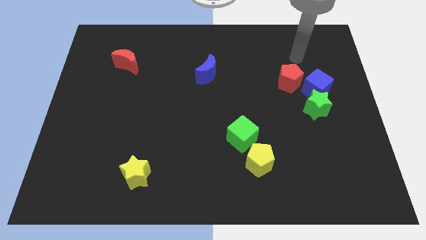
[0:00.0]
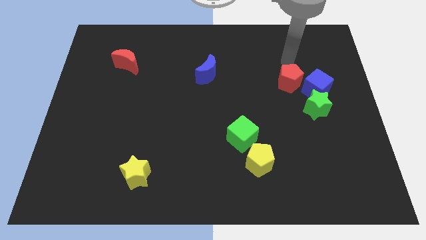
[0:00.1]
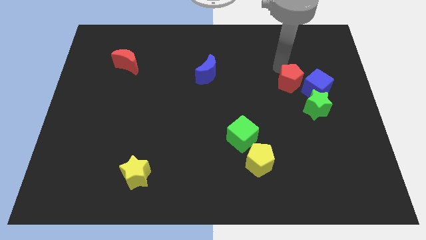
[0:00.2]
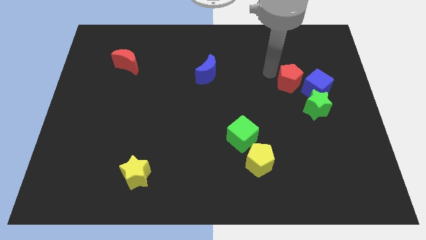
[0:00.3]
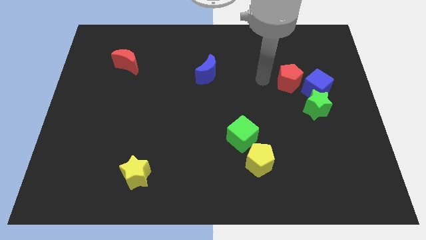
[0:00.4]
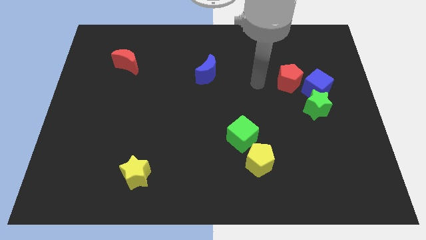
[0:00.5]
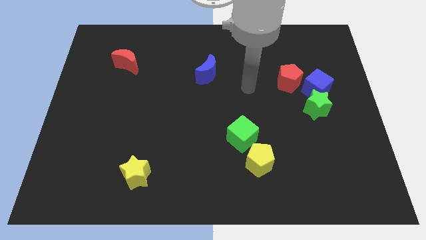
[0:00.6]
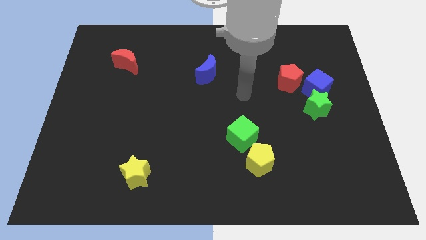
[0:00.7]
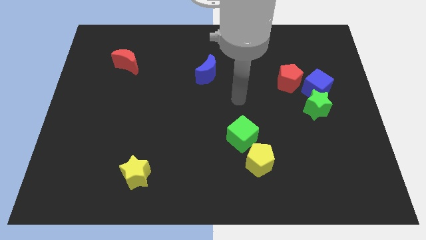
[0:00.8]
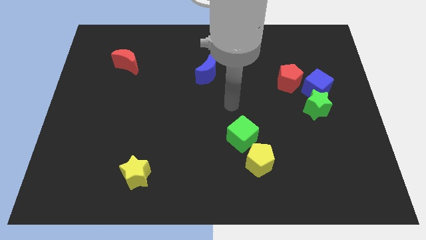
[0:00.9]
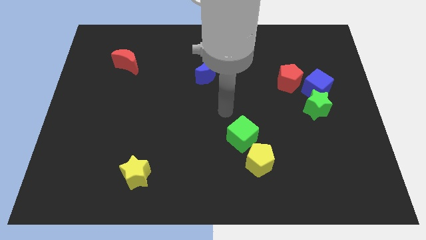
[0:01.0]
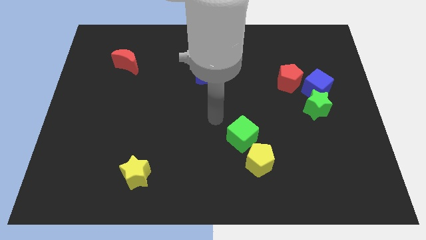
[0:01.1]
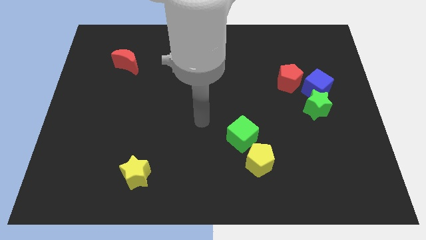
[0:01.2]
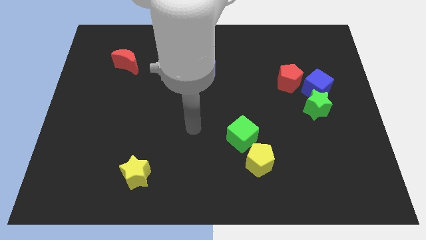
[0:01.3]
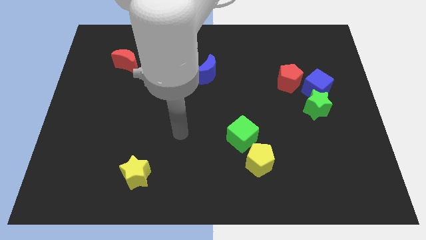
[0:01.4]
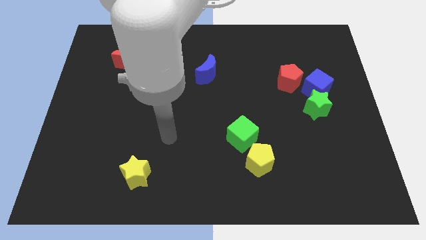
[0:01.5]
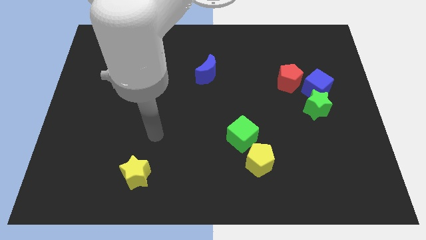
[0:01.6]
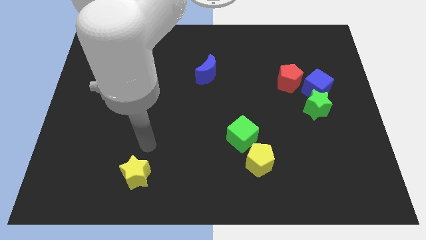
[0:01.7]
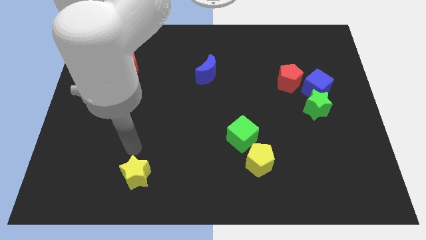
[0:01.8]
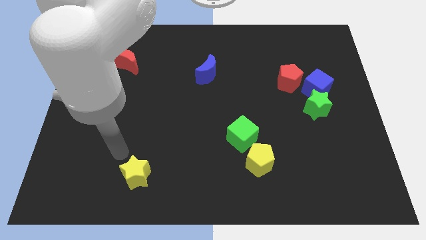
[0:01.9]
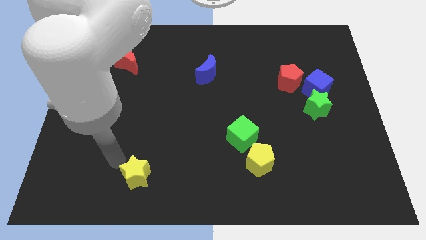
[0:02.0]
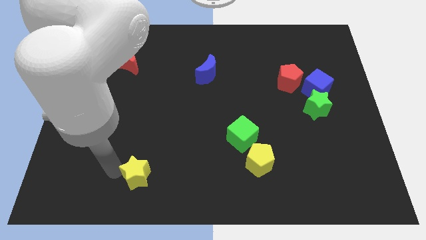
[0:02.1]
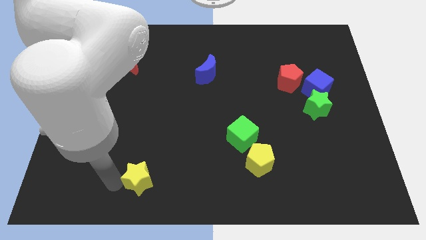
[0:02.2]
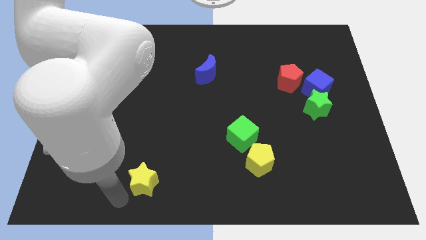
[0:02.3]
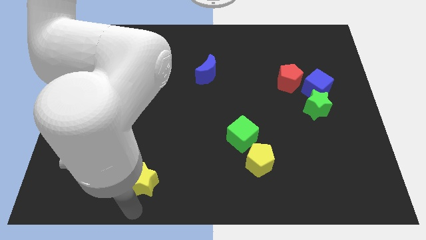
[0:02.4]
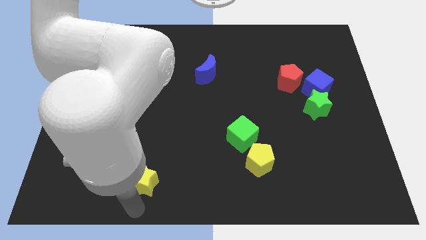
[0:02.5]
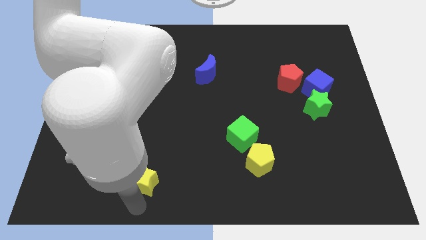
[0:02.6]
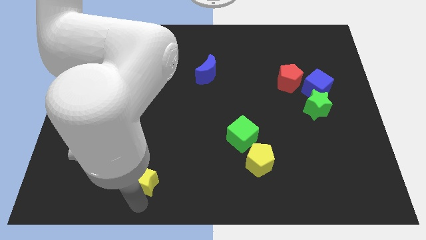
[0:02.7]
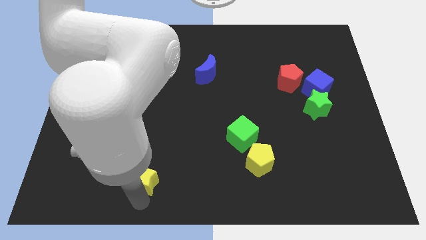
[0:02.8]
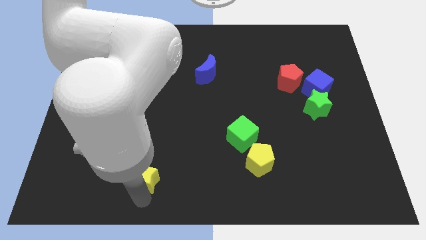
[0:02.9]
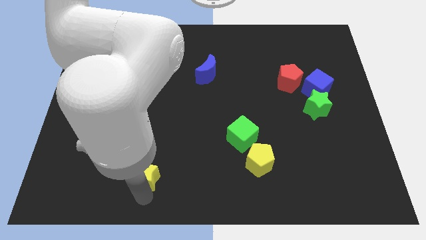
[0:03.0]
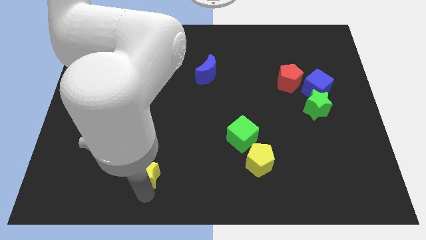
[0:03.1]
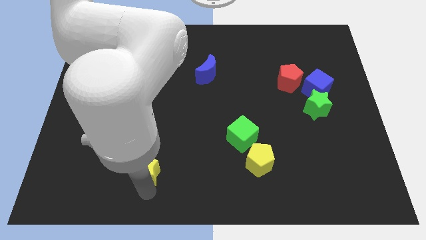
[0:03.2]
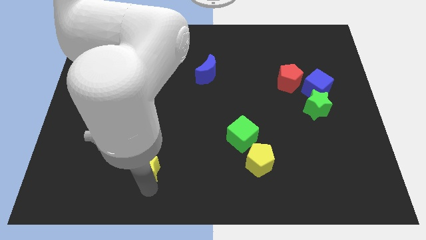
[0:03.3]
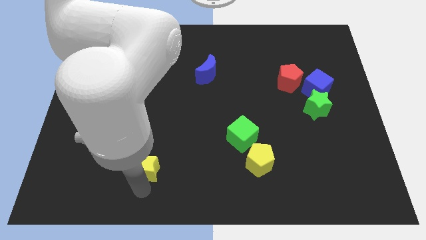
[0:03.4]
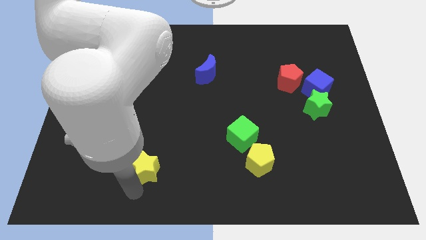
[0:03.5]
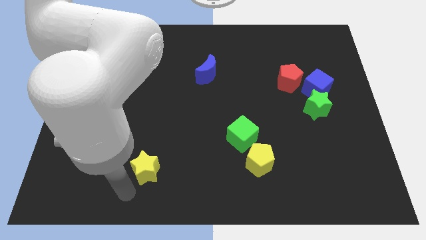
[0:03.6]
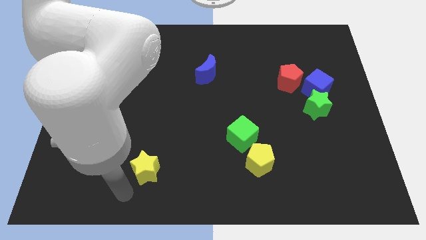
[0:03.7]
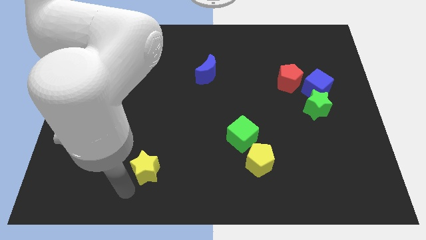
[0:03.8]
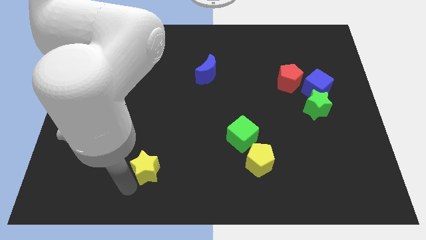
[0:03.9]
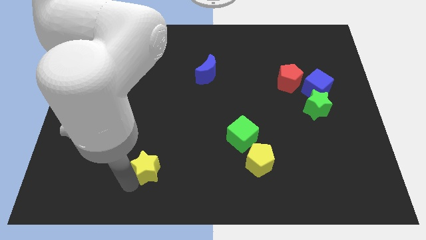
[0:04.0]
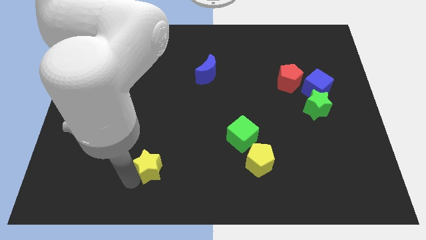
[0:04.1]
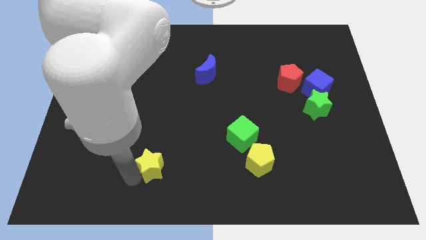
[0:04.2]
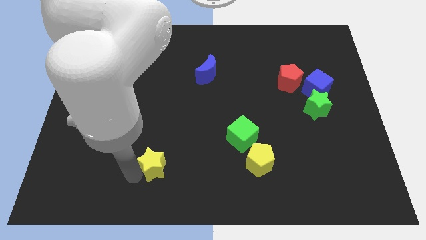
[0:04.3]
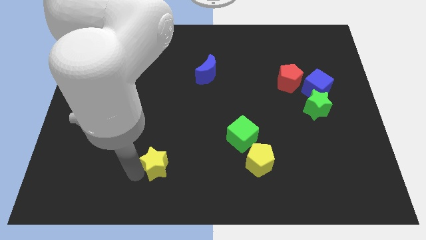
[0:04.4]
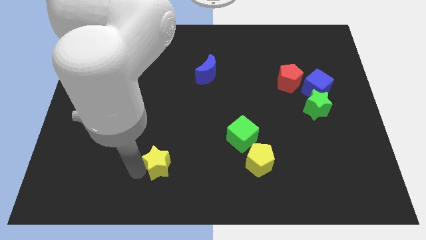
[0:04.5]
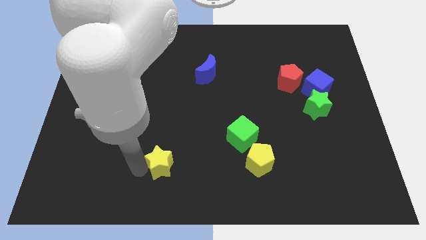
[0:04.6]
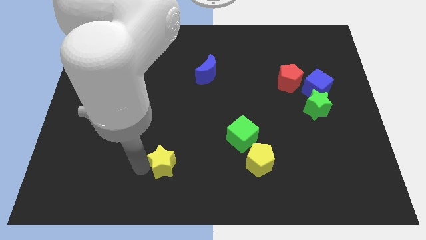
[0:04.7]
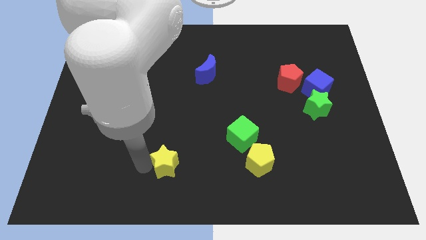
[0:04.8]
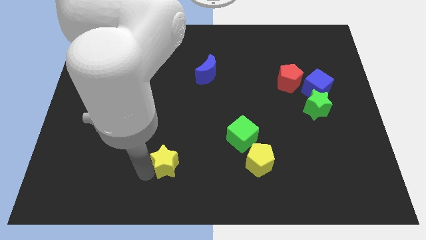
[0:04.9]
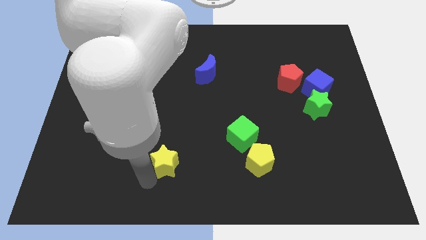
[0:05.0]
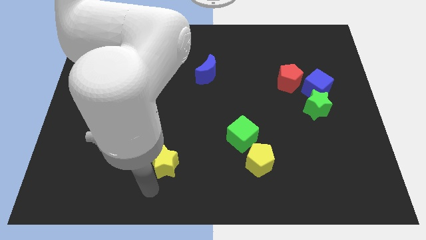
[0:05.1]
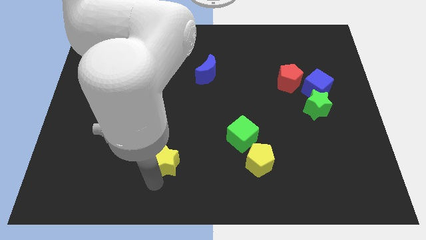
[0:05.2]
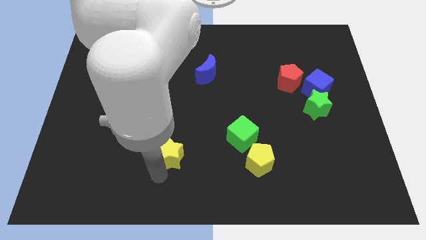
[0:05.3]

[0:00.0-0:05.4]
push the yellow star diagonally up and right a little

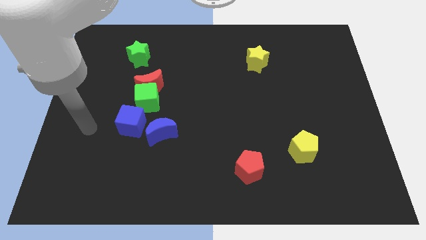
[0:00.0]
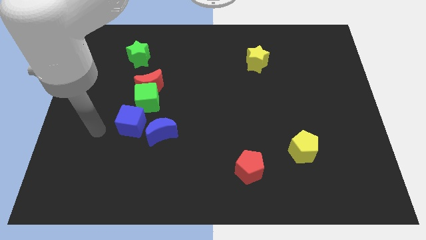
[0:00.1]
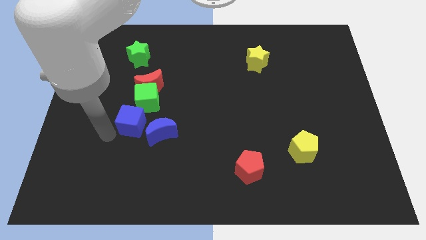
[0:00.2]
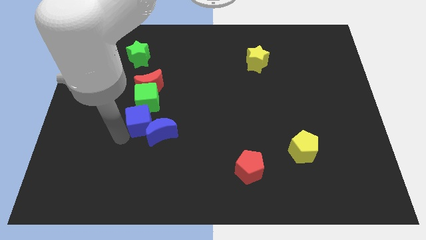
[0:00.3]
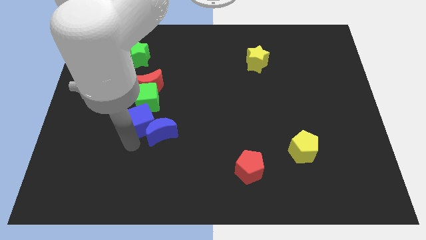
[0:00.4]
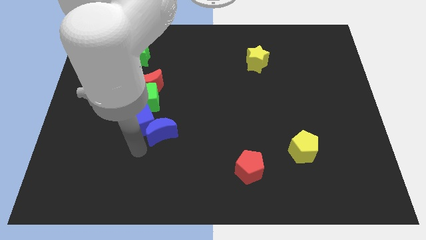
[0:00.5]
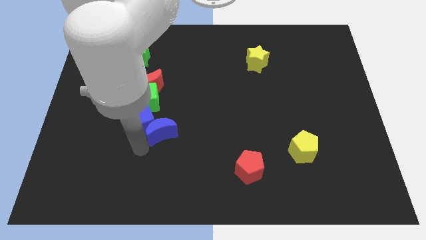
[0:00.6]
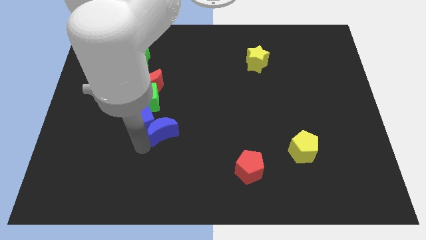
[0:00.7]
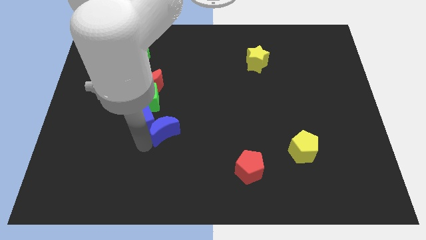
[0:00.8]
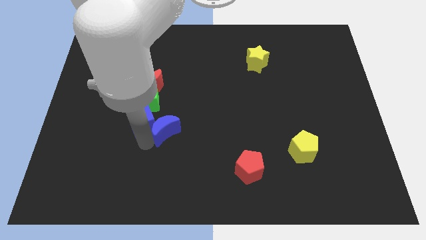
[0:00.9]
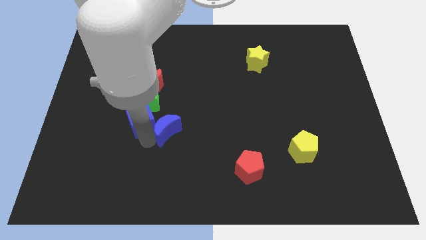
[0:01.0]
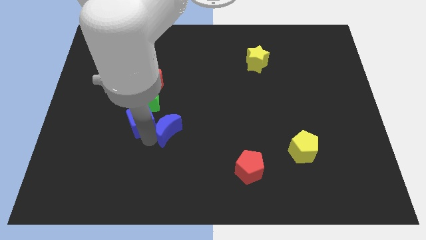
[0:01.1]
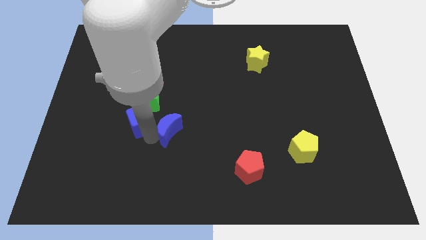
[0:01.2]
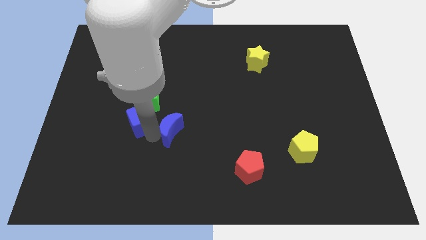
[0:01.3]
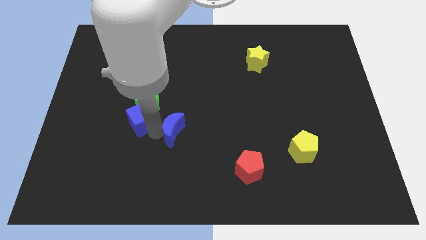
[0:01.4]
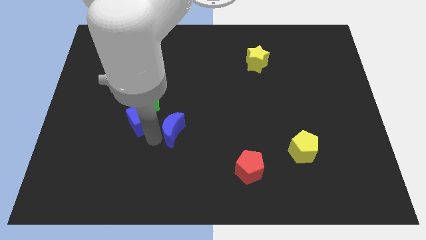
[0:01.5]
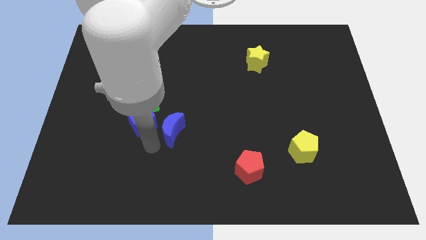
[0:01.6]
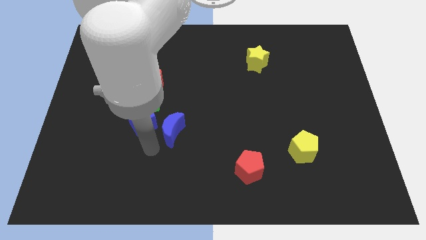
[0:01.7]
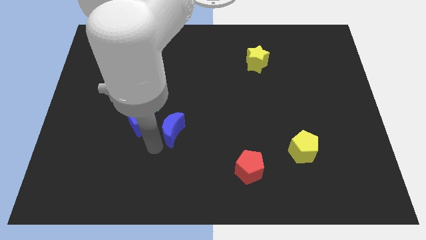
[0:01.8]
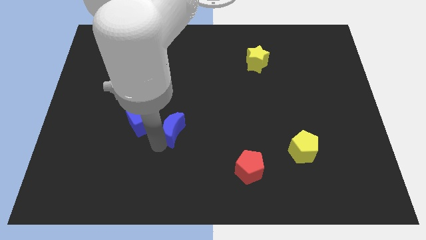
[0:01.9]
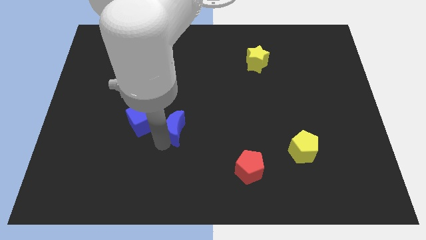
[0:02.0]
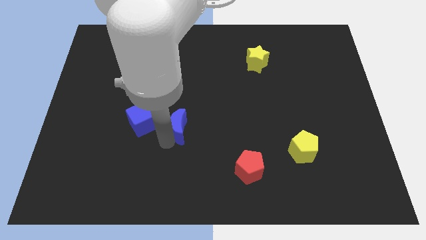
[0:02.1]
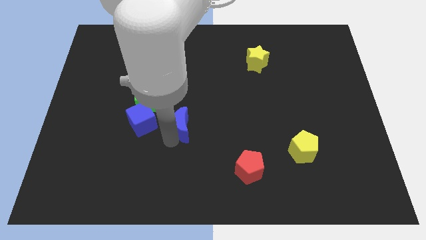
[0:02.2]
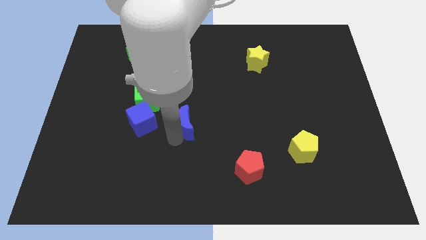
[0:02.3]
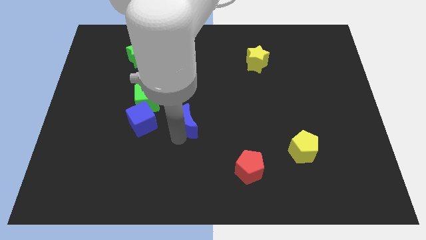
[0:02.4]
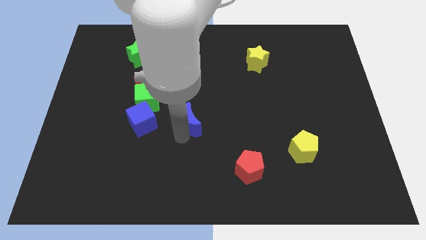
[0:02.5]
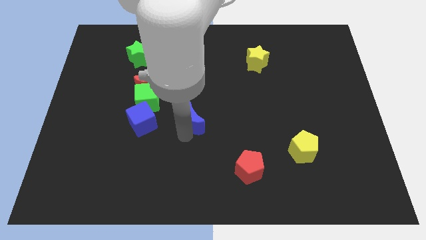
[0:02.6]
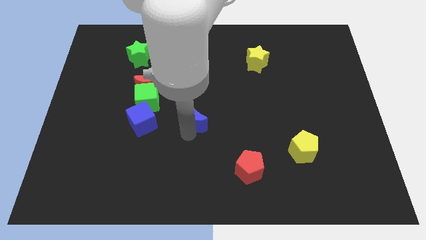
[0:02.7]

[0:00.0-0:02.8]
slightly push the blue moon up and then right
